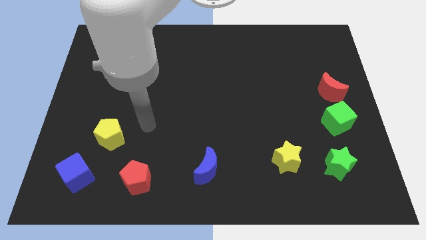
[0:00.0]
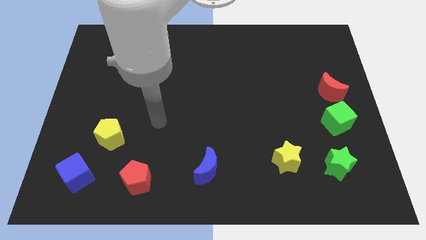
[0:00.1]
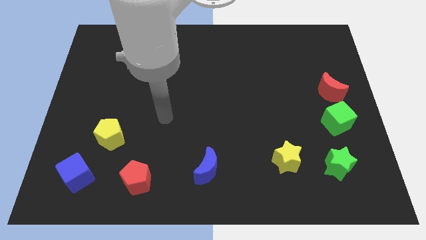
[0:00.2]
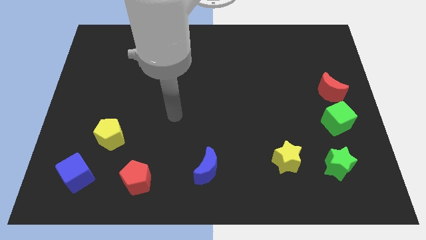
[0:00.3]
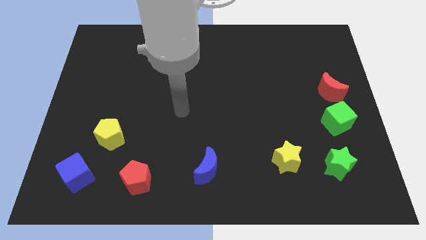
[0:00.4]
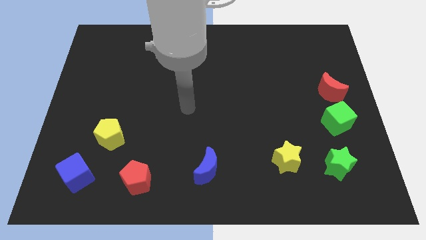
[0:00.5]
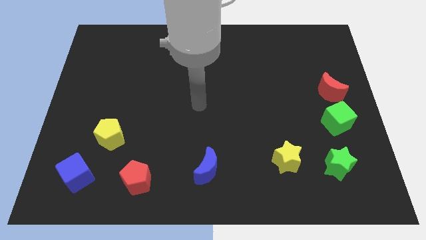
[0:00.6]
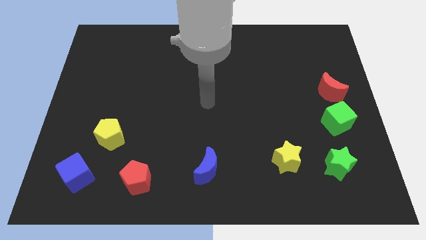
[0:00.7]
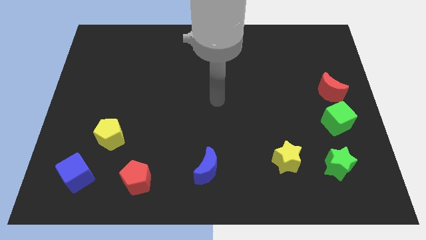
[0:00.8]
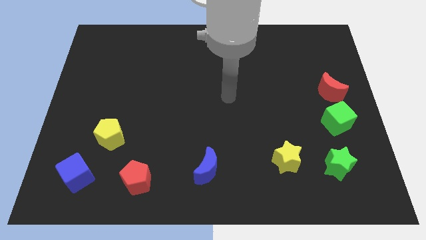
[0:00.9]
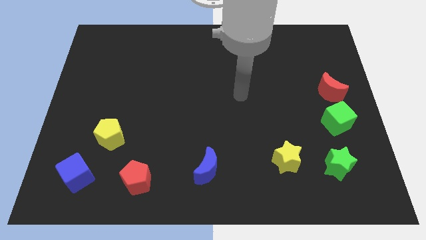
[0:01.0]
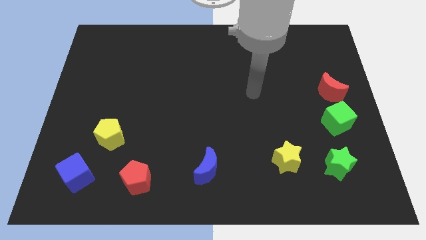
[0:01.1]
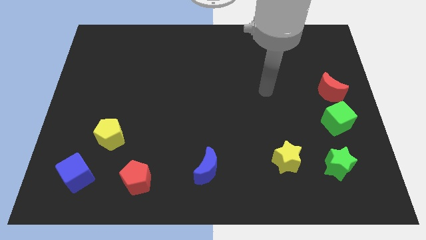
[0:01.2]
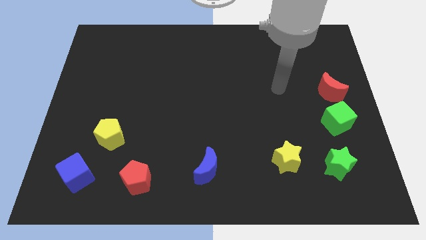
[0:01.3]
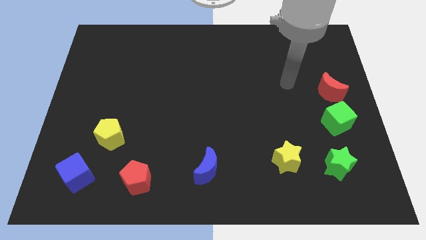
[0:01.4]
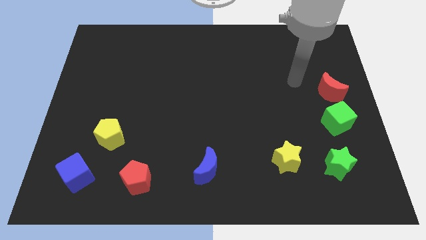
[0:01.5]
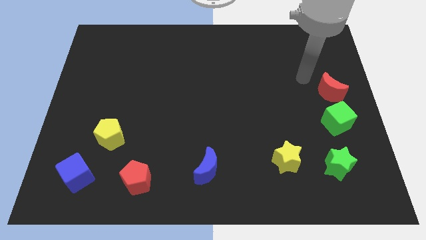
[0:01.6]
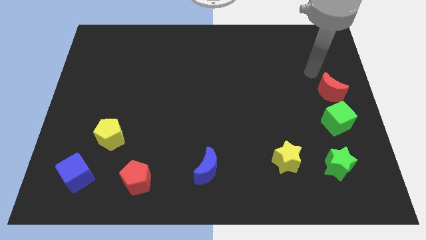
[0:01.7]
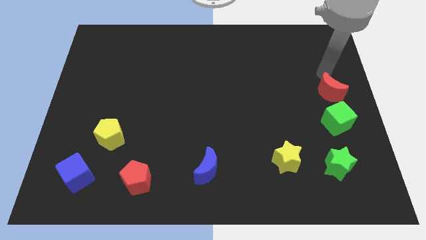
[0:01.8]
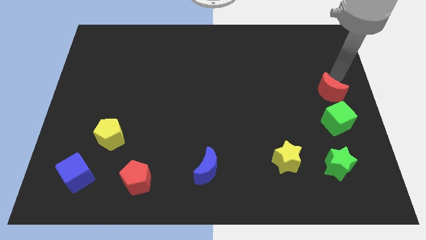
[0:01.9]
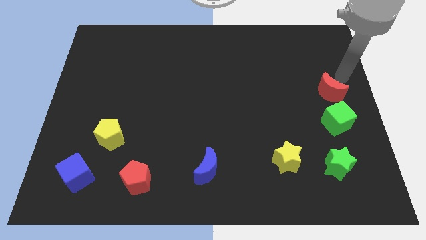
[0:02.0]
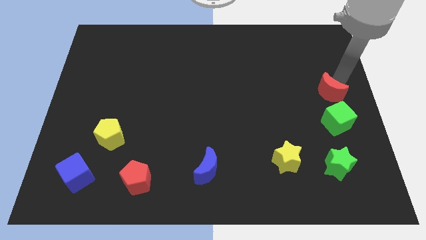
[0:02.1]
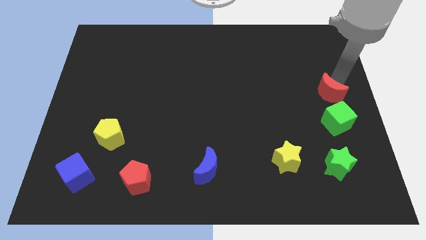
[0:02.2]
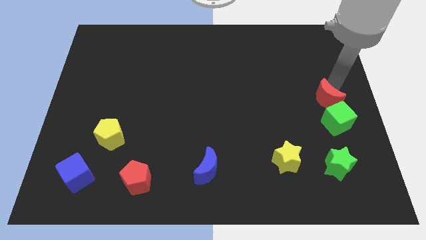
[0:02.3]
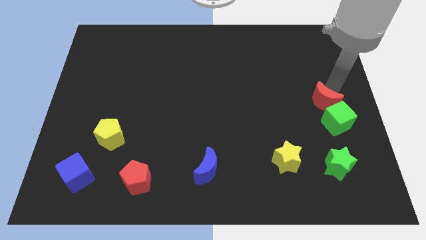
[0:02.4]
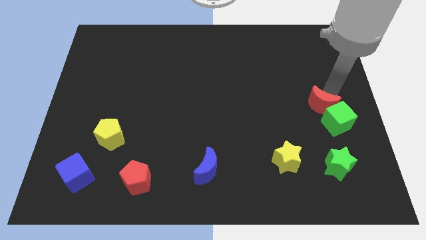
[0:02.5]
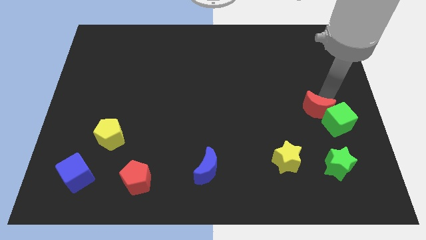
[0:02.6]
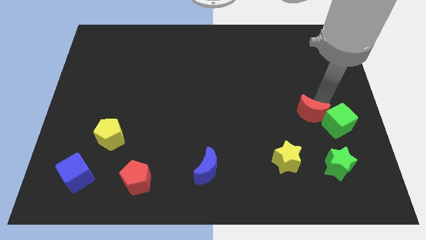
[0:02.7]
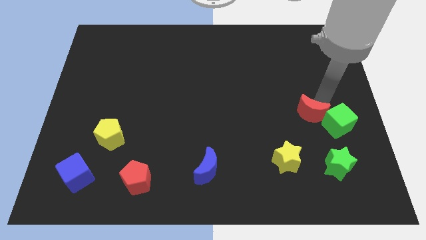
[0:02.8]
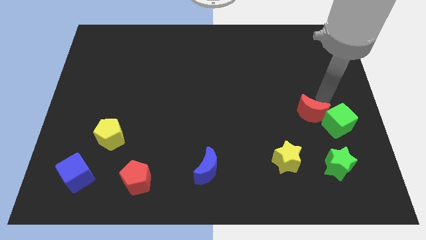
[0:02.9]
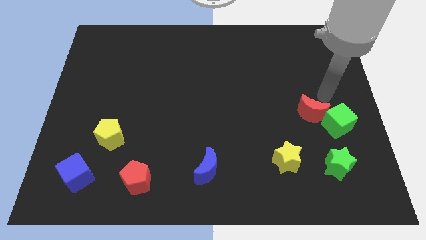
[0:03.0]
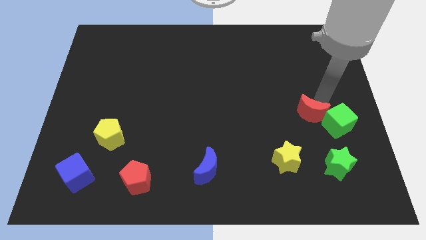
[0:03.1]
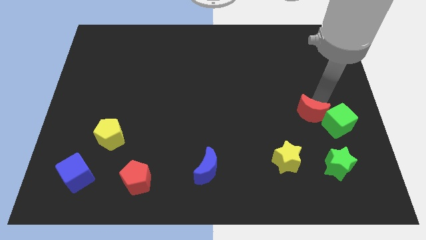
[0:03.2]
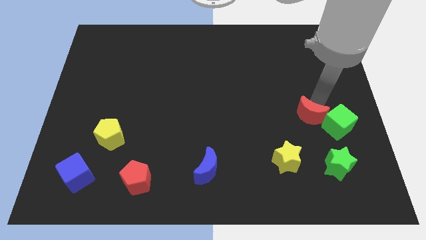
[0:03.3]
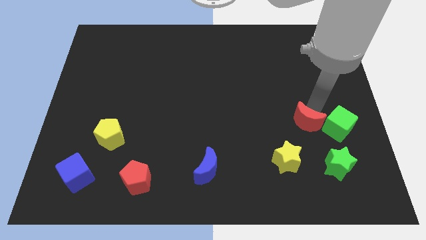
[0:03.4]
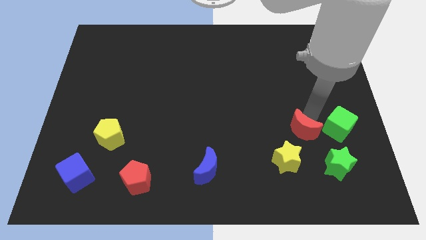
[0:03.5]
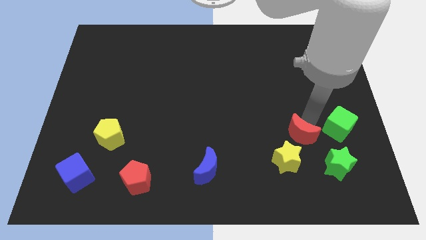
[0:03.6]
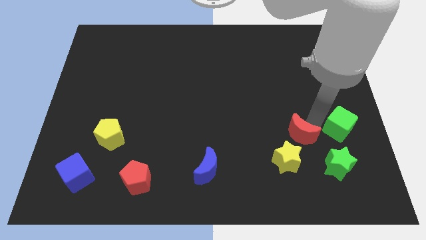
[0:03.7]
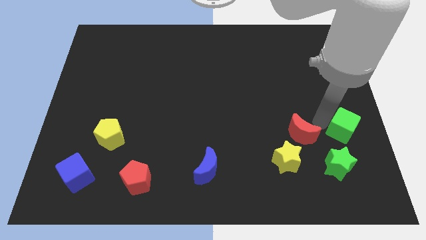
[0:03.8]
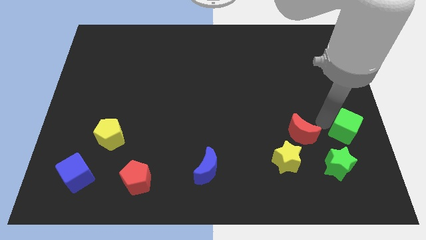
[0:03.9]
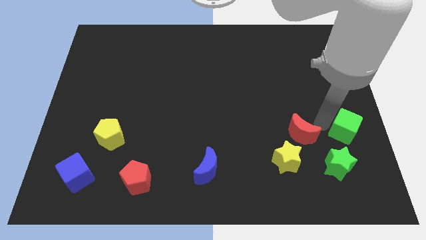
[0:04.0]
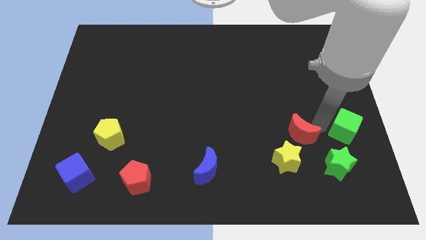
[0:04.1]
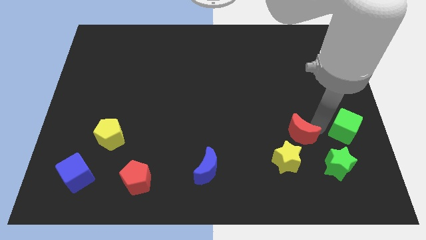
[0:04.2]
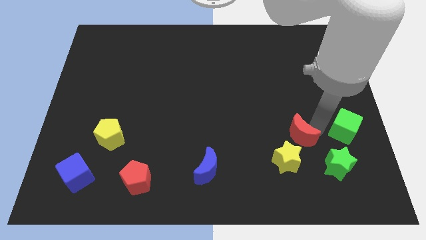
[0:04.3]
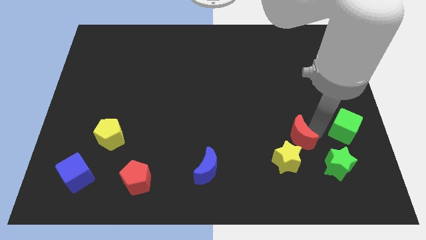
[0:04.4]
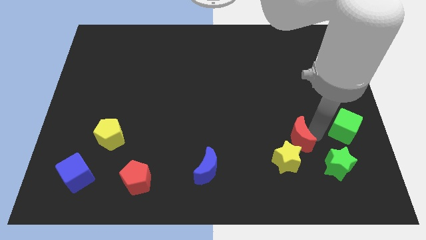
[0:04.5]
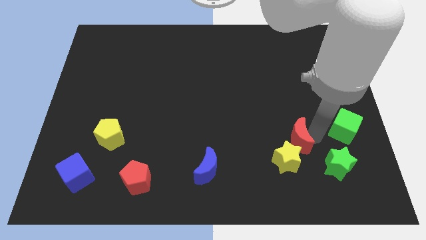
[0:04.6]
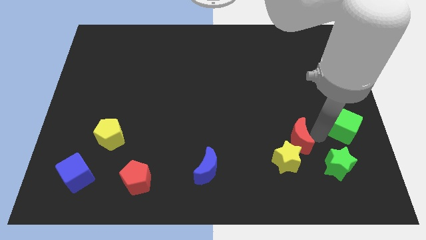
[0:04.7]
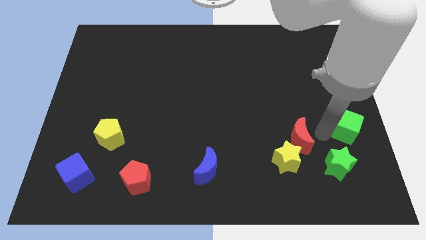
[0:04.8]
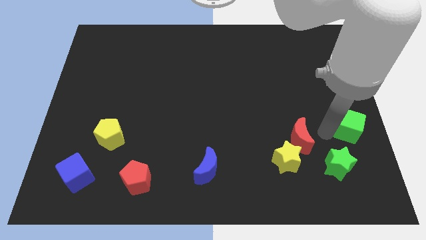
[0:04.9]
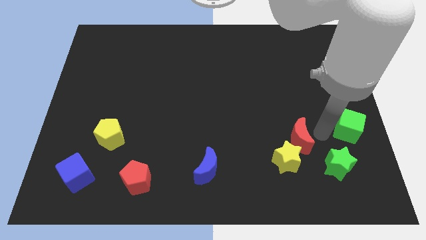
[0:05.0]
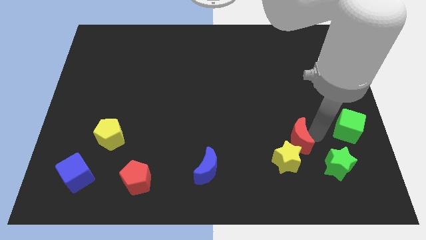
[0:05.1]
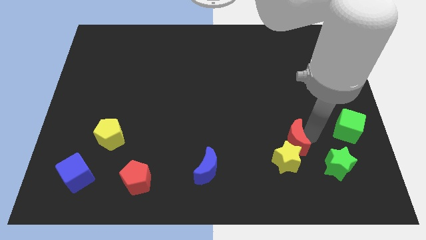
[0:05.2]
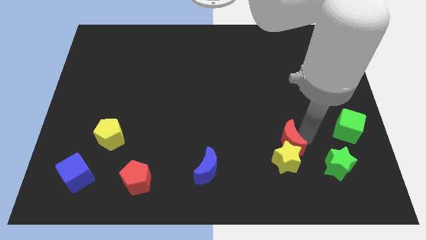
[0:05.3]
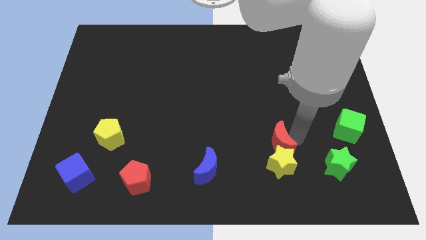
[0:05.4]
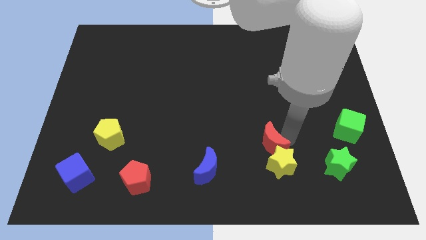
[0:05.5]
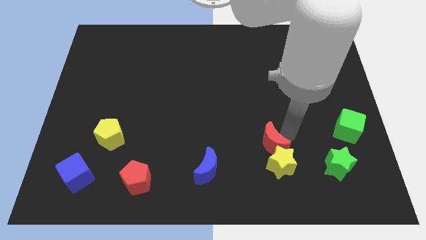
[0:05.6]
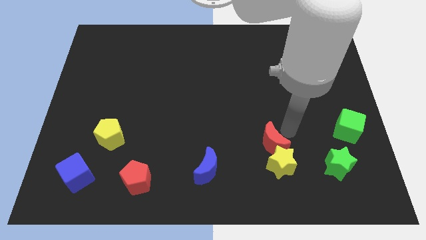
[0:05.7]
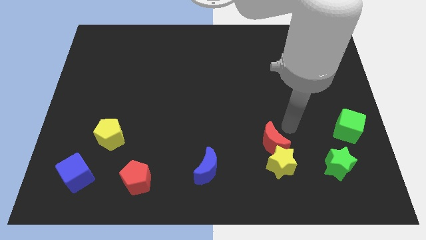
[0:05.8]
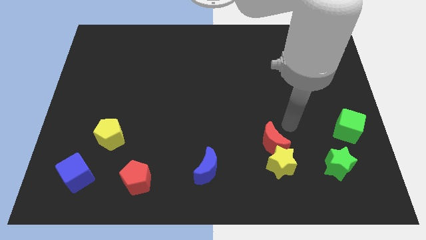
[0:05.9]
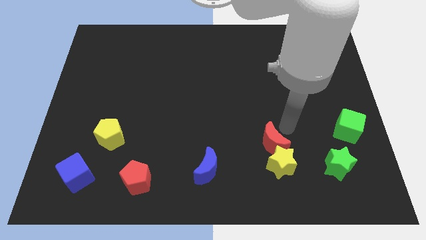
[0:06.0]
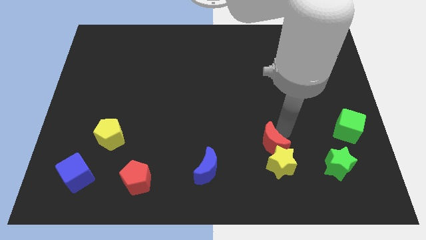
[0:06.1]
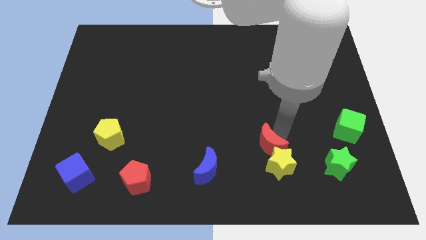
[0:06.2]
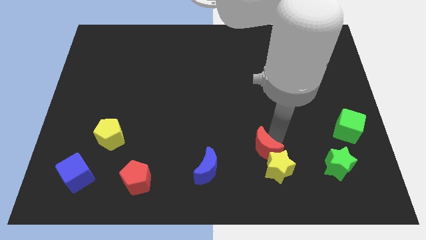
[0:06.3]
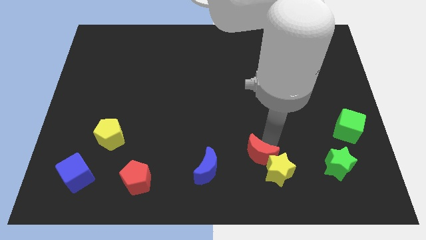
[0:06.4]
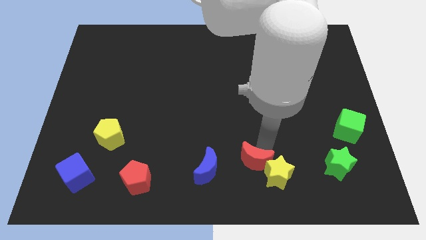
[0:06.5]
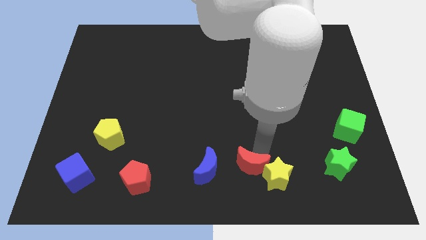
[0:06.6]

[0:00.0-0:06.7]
put the red moon to the bottom side
